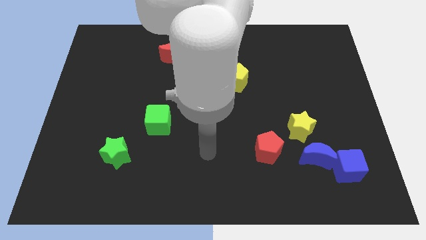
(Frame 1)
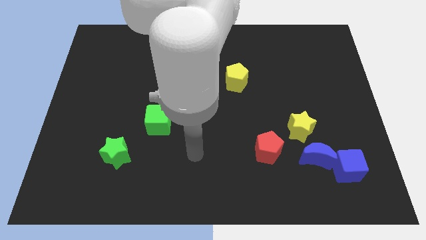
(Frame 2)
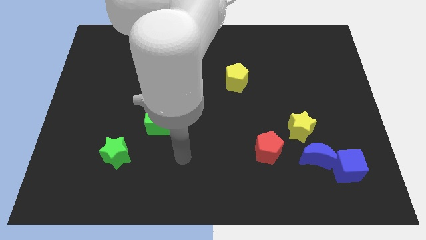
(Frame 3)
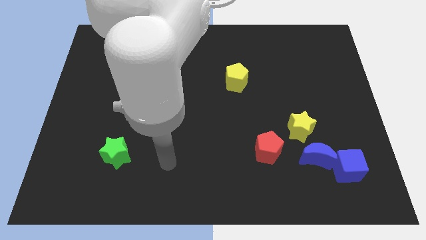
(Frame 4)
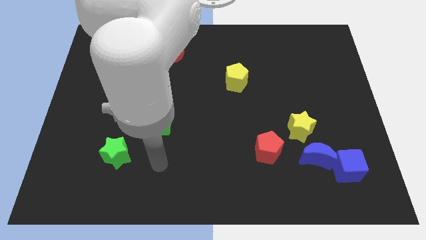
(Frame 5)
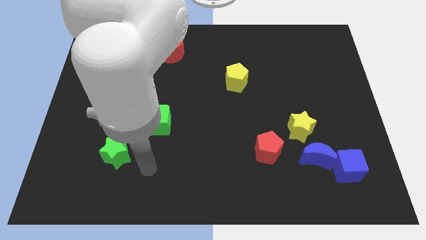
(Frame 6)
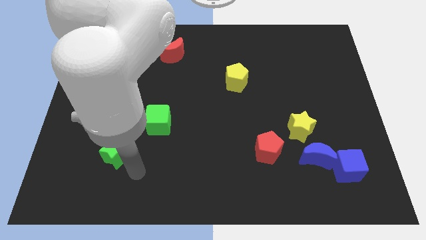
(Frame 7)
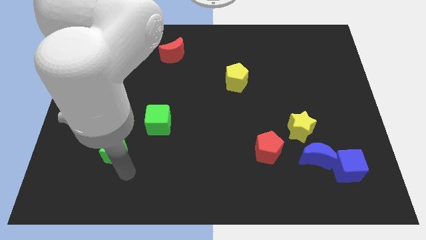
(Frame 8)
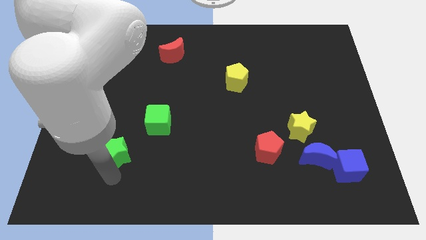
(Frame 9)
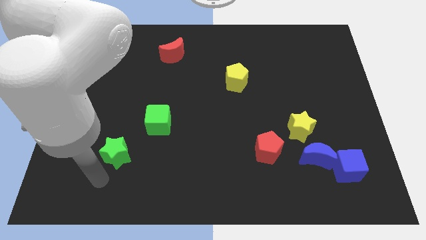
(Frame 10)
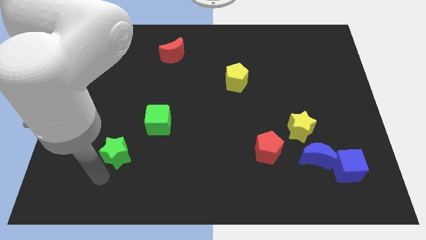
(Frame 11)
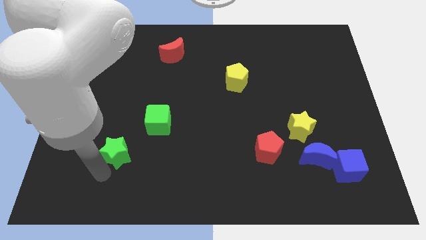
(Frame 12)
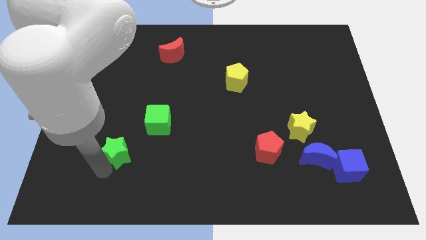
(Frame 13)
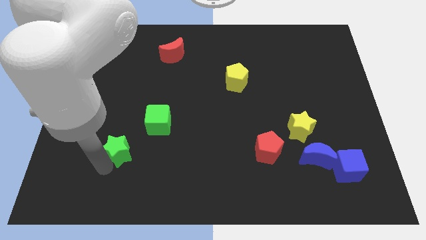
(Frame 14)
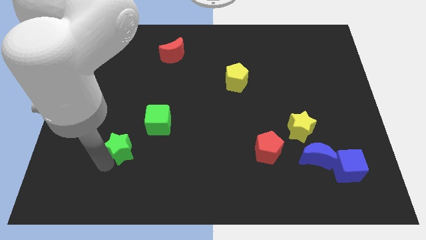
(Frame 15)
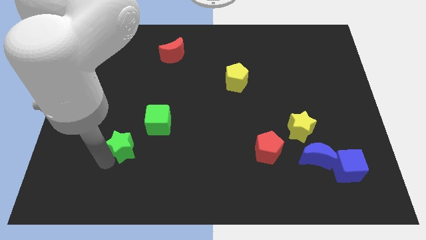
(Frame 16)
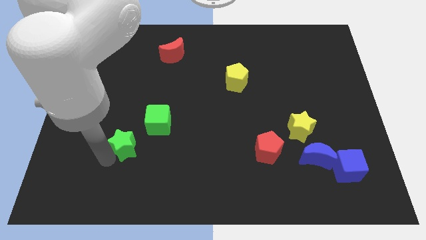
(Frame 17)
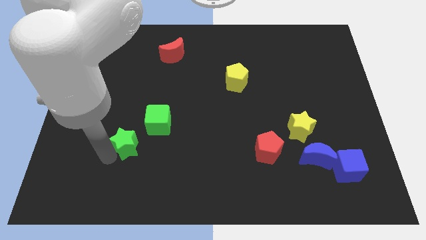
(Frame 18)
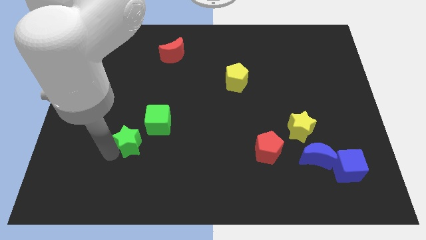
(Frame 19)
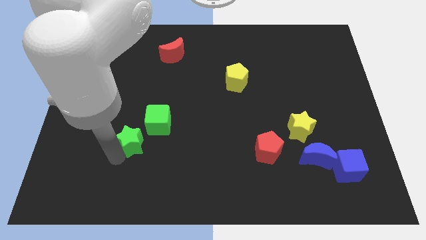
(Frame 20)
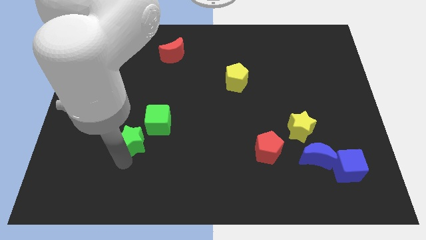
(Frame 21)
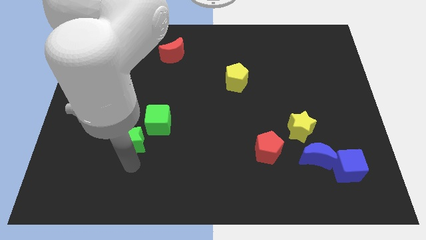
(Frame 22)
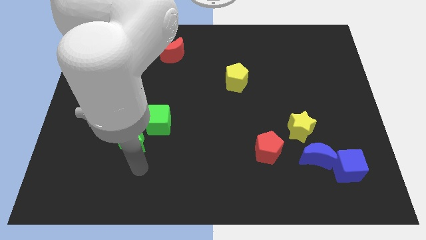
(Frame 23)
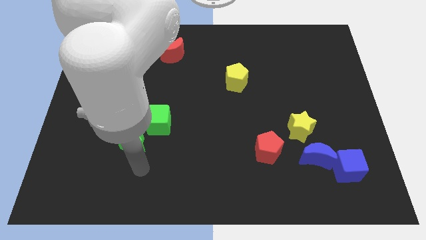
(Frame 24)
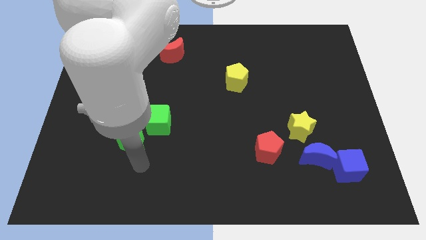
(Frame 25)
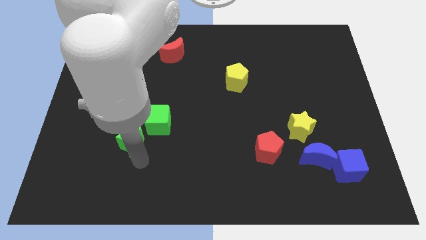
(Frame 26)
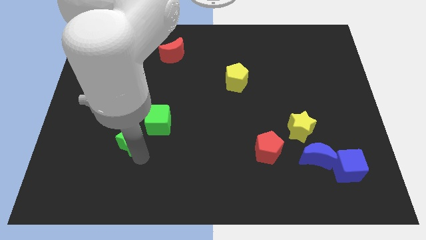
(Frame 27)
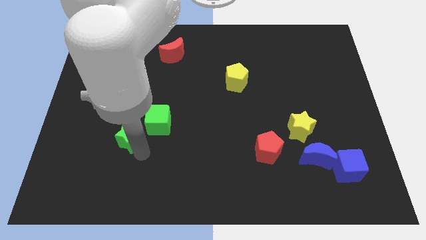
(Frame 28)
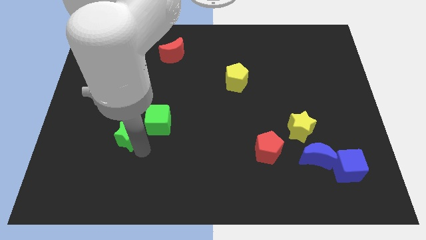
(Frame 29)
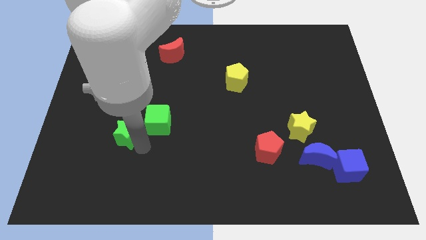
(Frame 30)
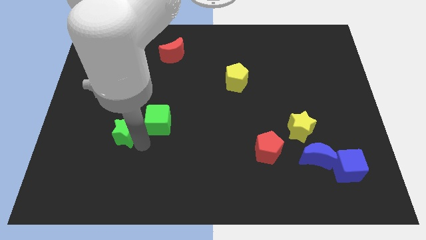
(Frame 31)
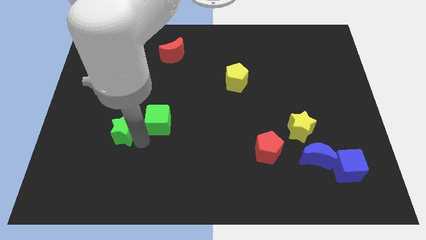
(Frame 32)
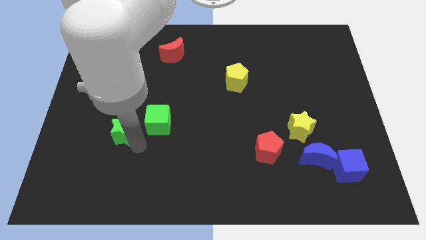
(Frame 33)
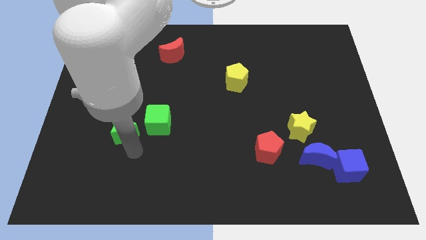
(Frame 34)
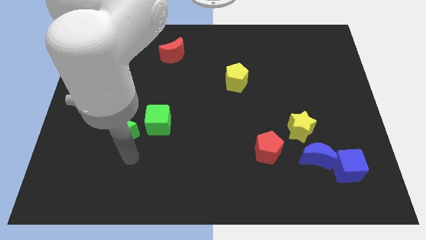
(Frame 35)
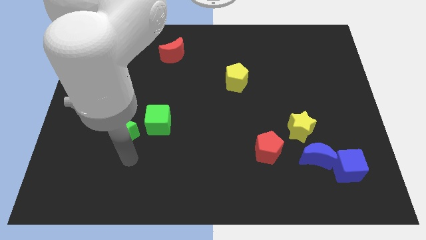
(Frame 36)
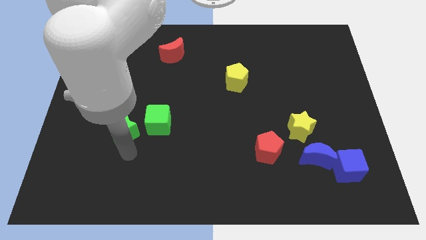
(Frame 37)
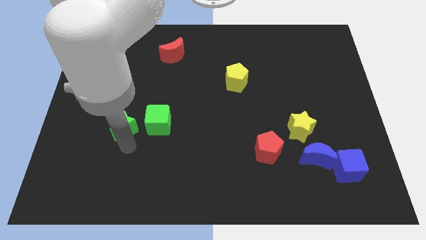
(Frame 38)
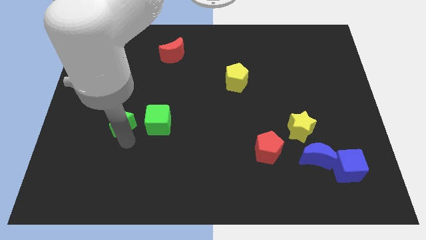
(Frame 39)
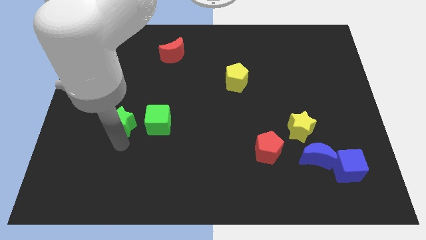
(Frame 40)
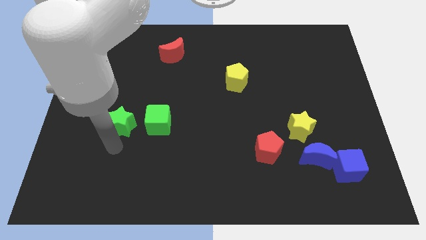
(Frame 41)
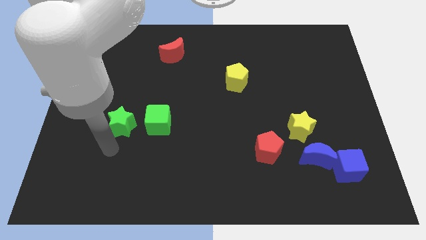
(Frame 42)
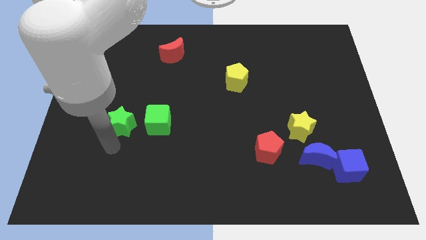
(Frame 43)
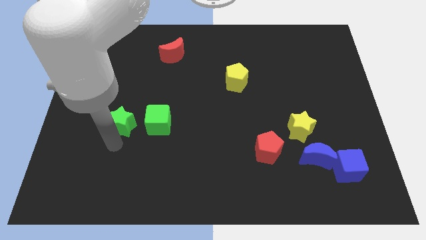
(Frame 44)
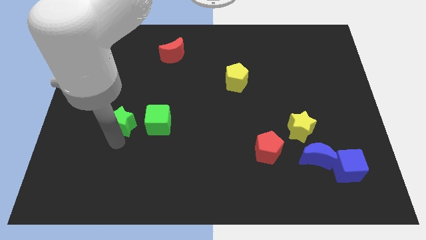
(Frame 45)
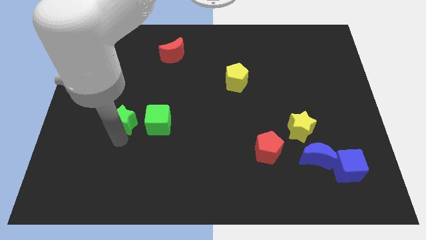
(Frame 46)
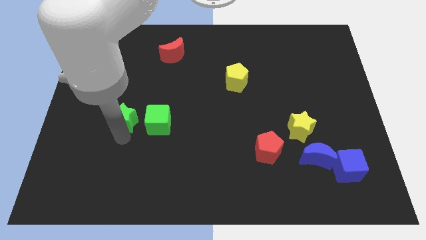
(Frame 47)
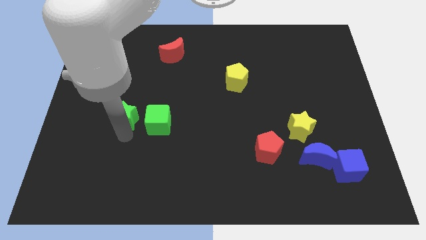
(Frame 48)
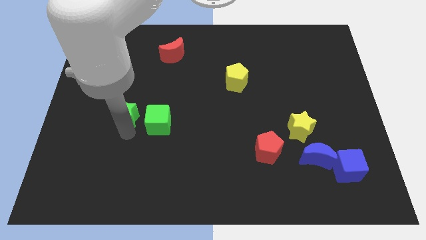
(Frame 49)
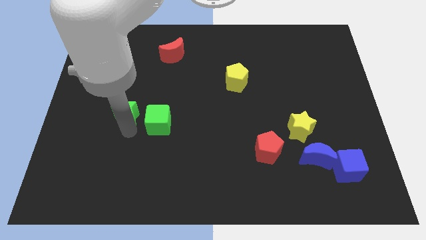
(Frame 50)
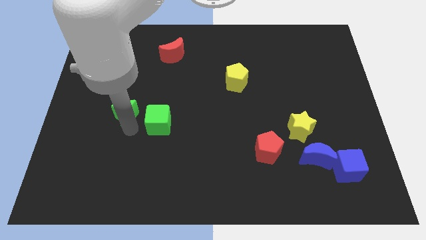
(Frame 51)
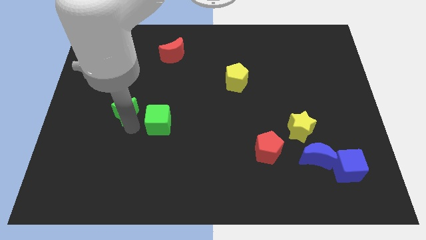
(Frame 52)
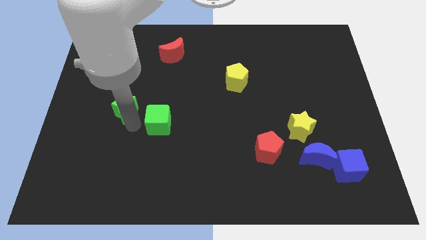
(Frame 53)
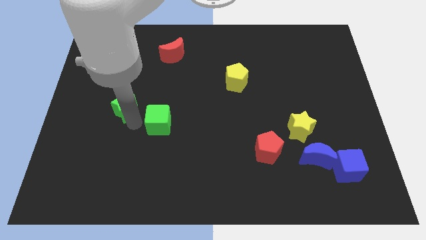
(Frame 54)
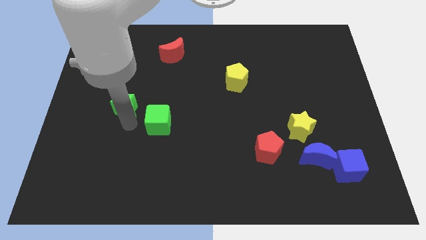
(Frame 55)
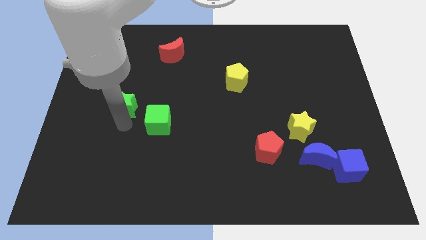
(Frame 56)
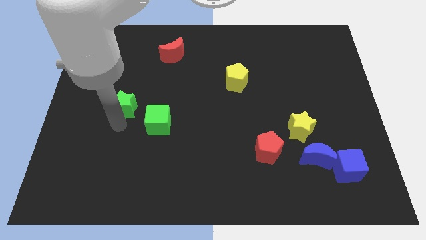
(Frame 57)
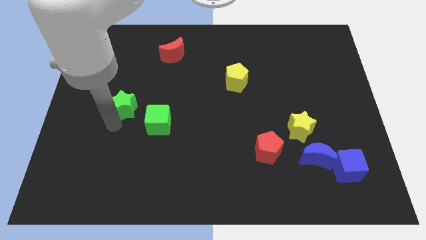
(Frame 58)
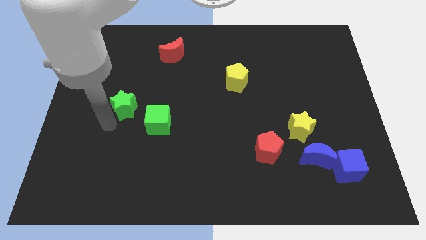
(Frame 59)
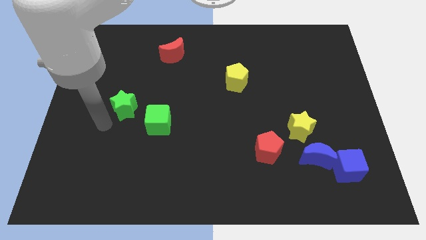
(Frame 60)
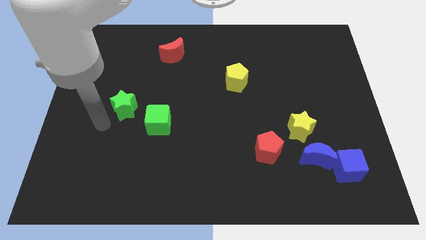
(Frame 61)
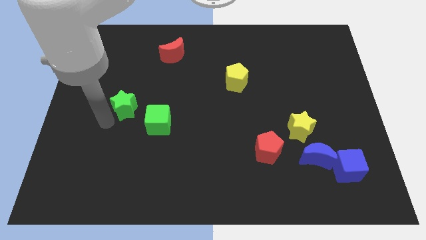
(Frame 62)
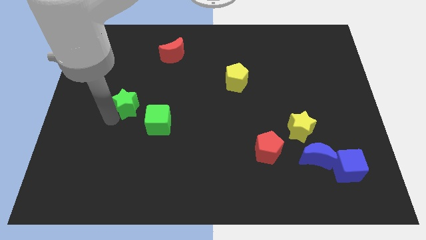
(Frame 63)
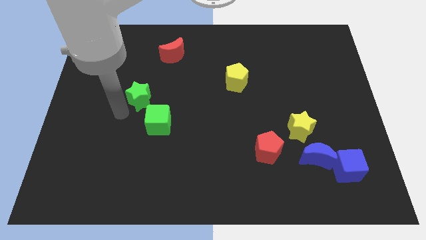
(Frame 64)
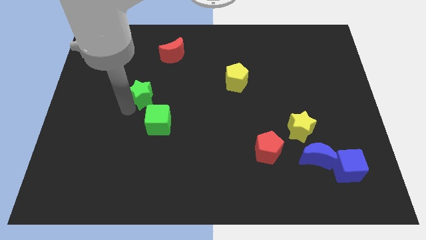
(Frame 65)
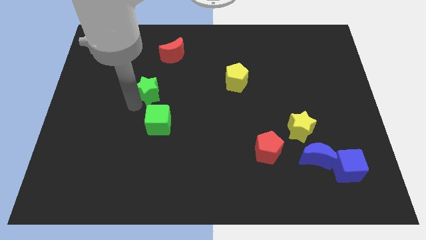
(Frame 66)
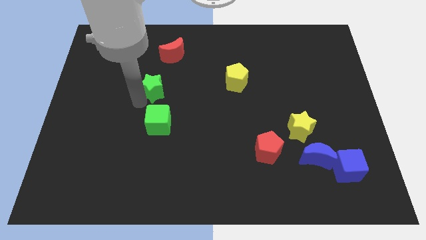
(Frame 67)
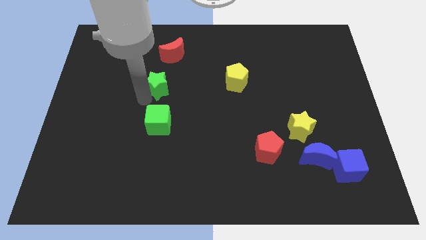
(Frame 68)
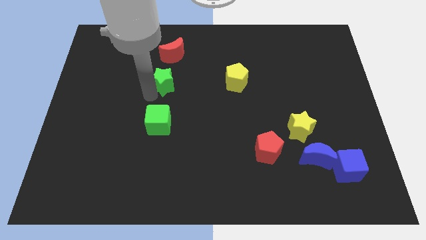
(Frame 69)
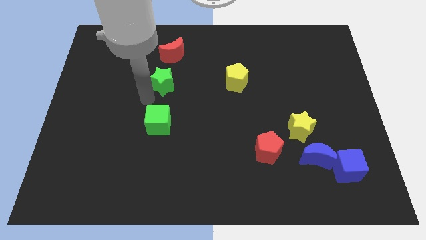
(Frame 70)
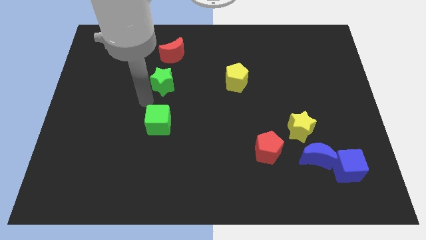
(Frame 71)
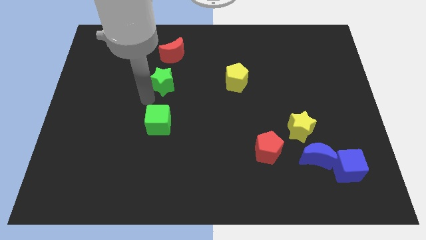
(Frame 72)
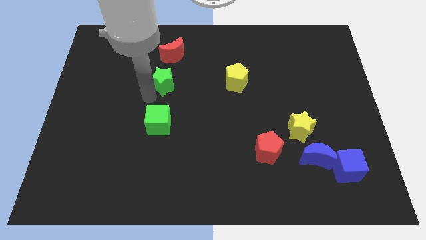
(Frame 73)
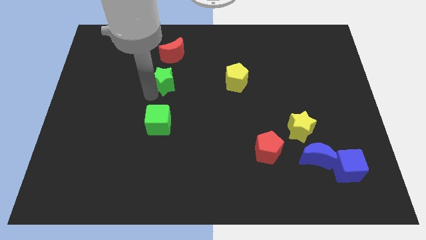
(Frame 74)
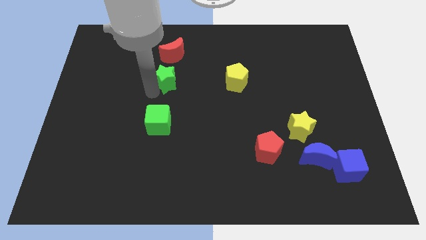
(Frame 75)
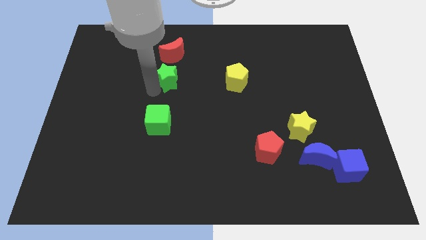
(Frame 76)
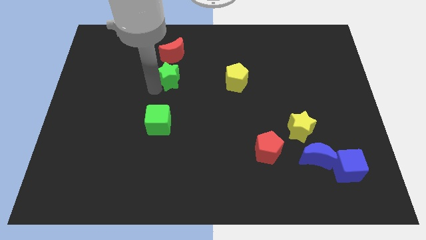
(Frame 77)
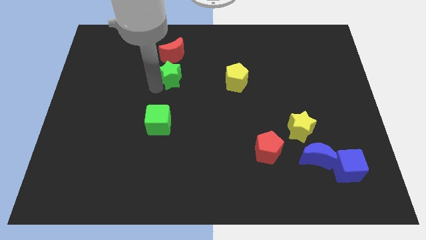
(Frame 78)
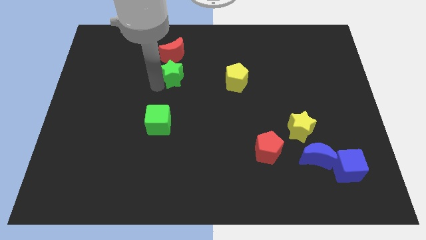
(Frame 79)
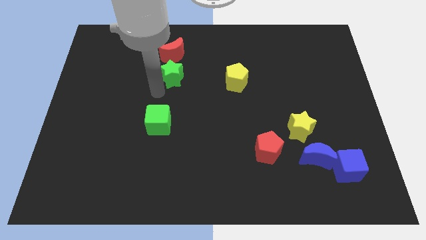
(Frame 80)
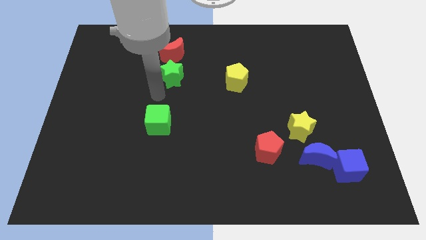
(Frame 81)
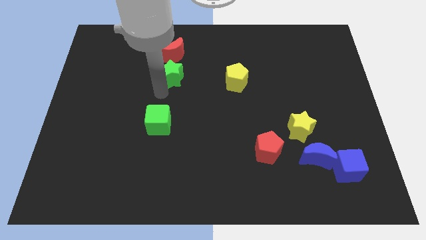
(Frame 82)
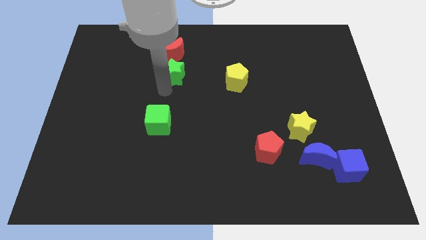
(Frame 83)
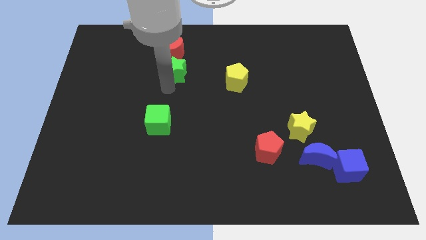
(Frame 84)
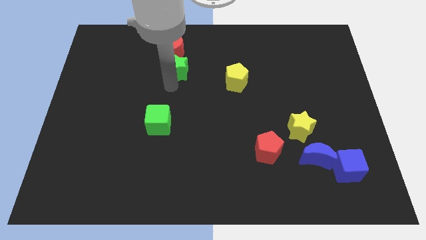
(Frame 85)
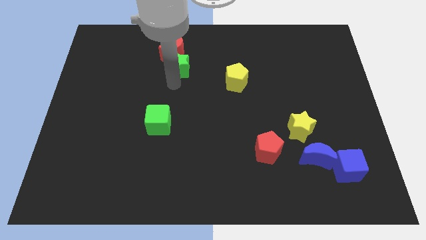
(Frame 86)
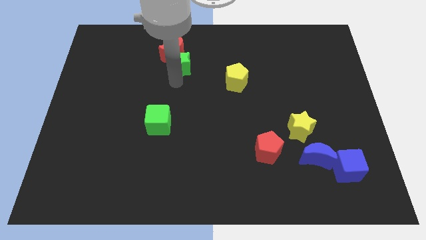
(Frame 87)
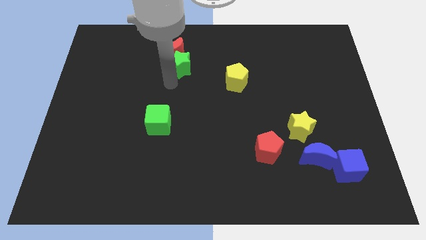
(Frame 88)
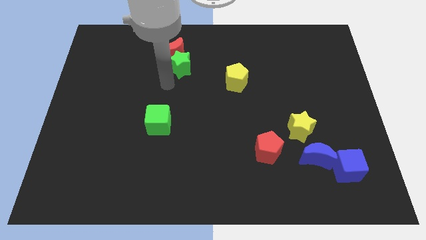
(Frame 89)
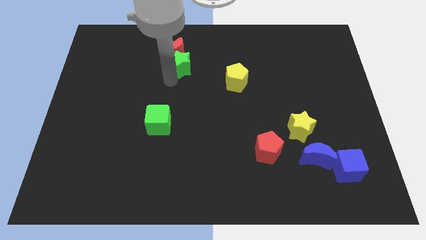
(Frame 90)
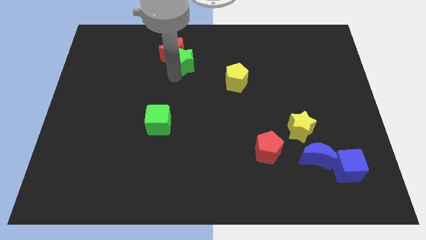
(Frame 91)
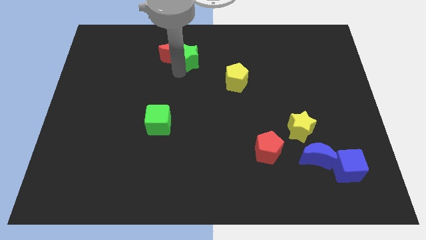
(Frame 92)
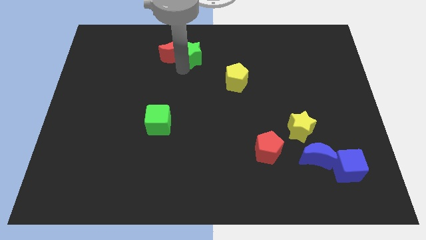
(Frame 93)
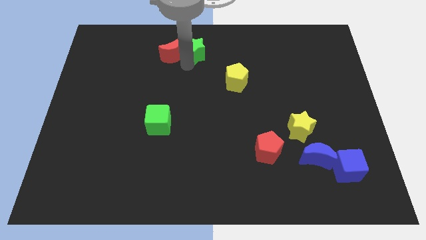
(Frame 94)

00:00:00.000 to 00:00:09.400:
move the green star to the towards your base
